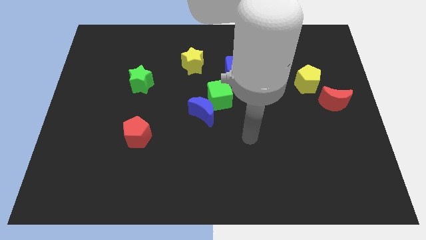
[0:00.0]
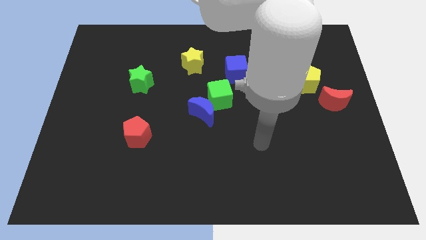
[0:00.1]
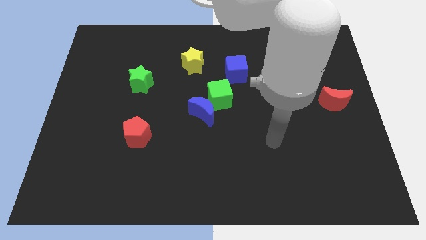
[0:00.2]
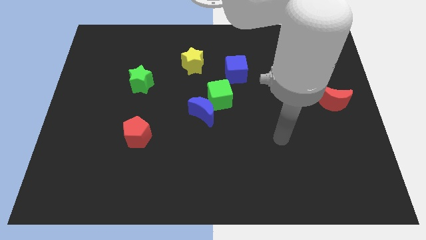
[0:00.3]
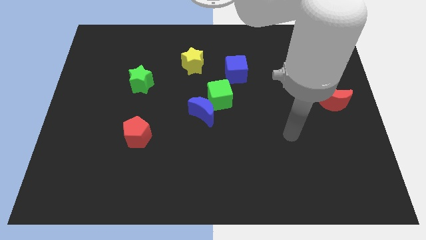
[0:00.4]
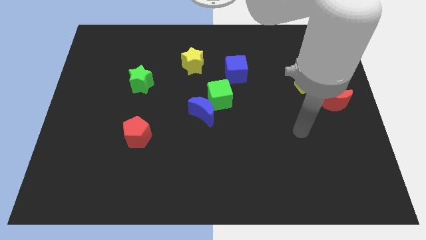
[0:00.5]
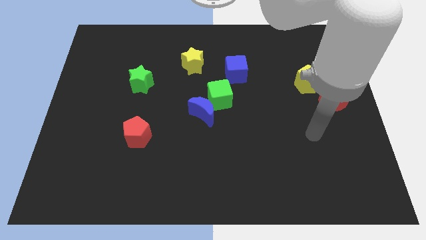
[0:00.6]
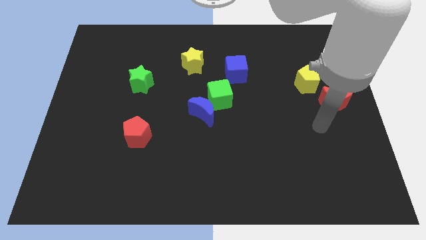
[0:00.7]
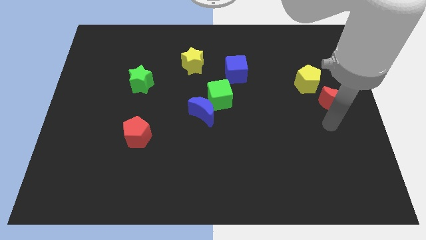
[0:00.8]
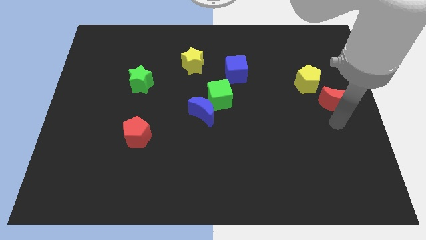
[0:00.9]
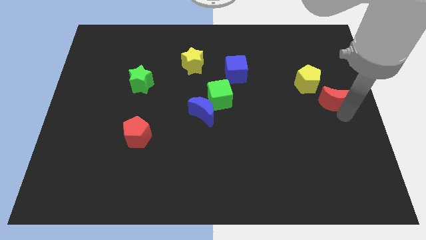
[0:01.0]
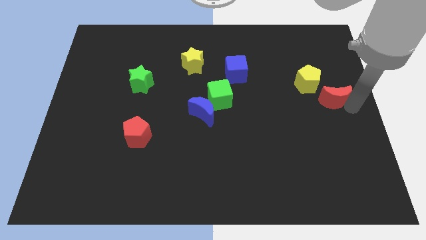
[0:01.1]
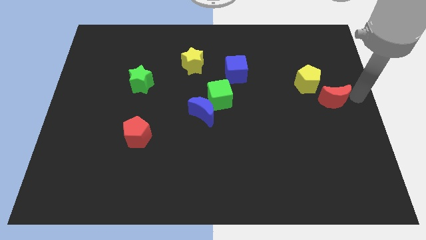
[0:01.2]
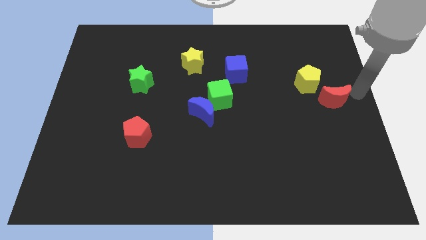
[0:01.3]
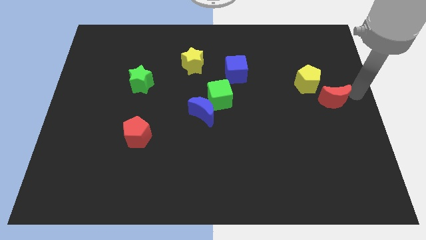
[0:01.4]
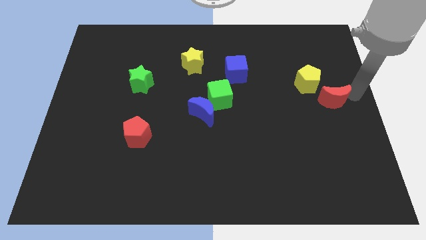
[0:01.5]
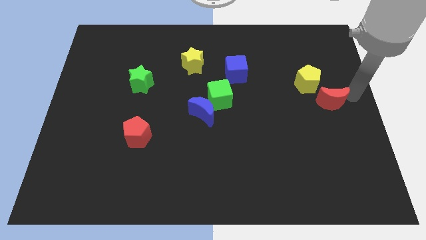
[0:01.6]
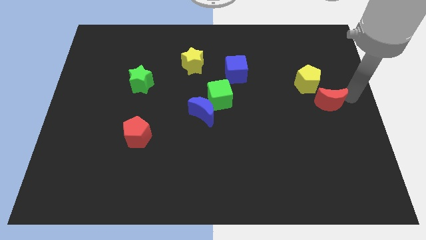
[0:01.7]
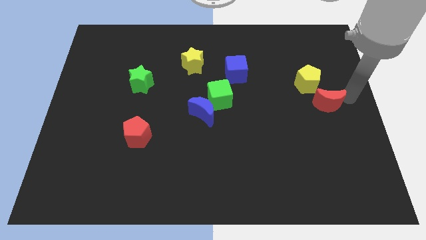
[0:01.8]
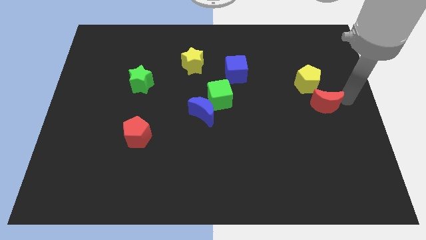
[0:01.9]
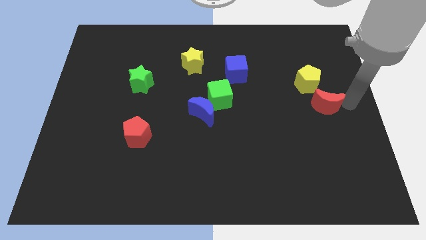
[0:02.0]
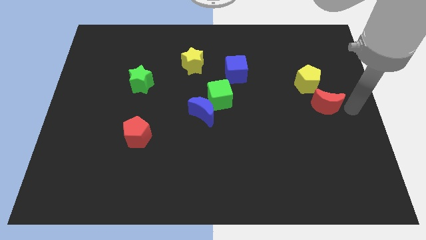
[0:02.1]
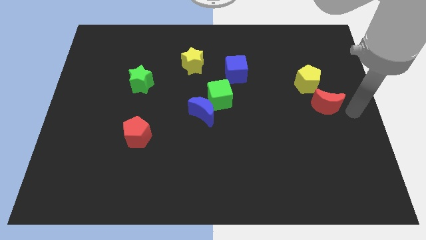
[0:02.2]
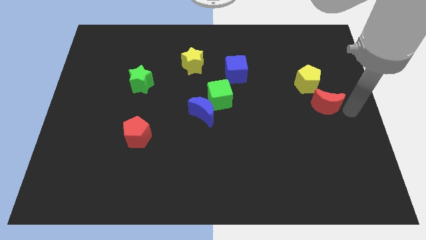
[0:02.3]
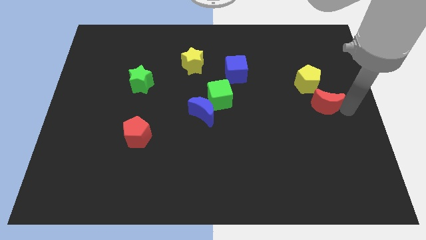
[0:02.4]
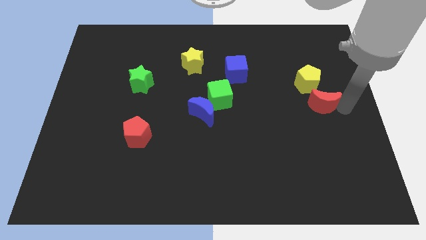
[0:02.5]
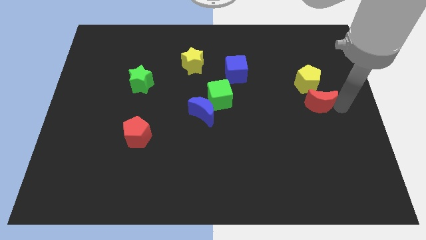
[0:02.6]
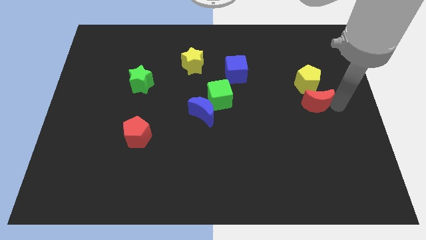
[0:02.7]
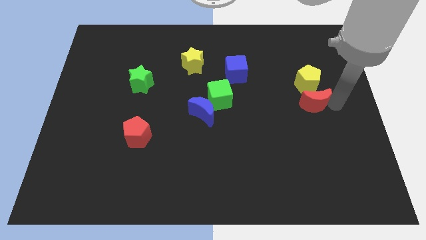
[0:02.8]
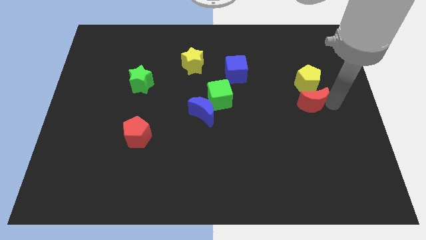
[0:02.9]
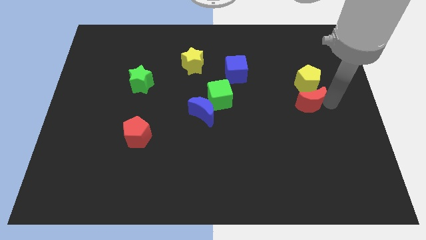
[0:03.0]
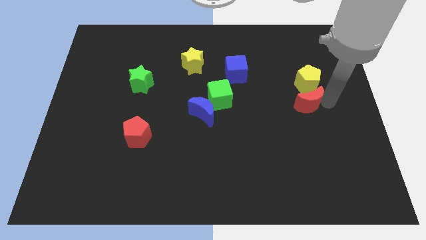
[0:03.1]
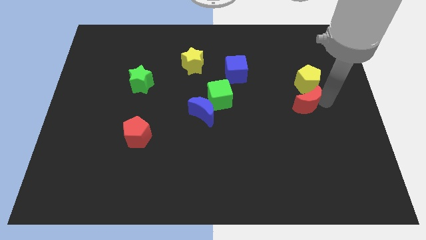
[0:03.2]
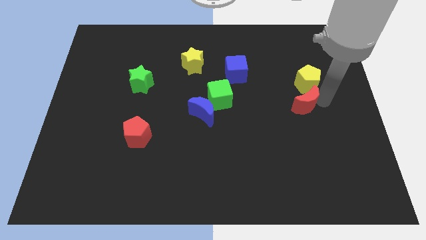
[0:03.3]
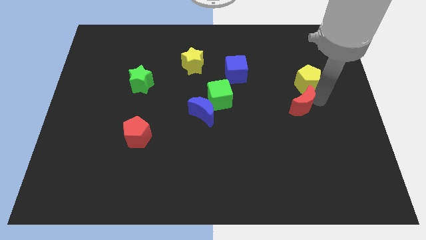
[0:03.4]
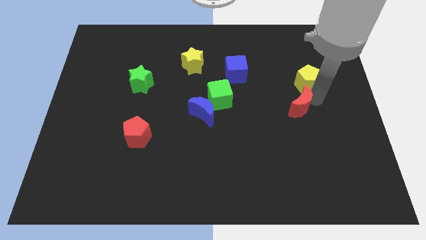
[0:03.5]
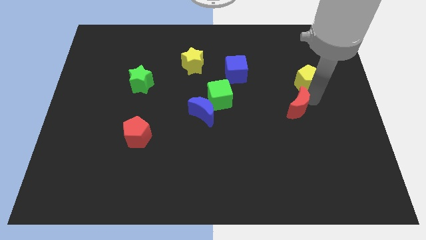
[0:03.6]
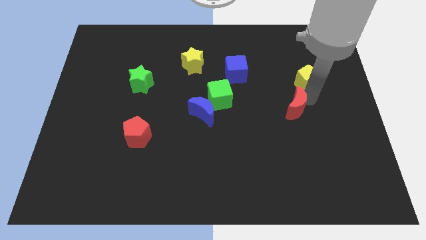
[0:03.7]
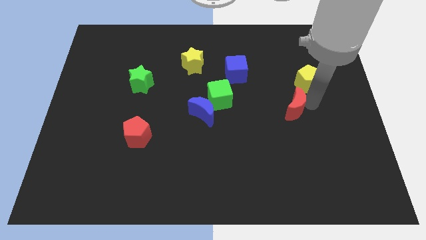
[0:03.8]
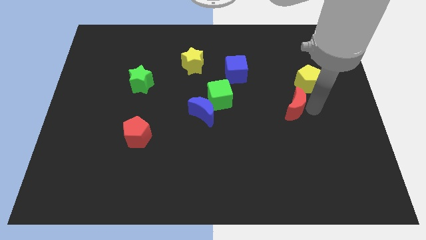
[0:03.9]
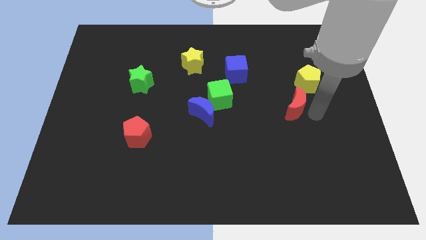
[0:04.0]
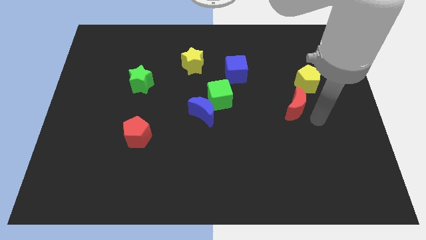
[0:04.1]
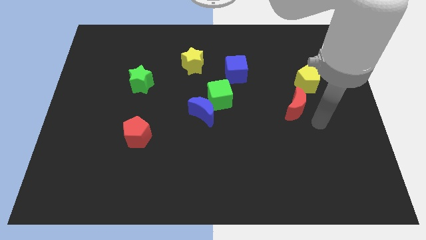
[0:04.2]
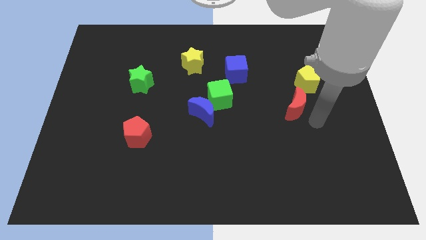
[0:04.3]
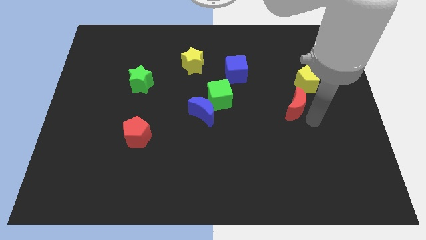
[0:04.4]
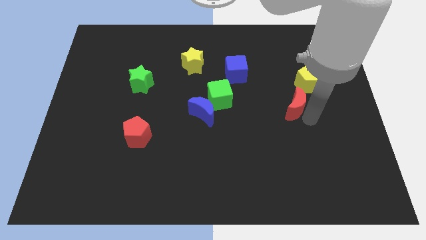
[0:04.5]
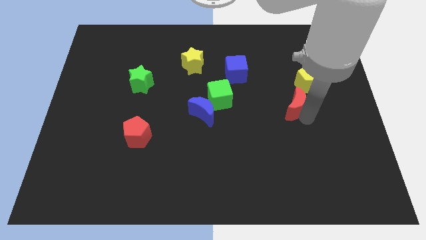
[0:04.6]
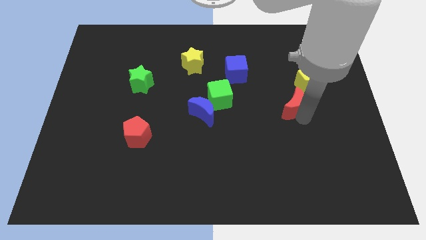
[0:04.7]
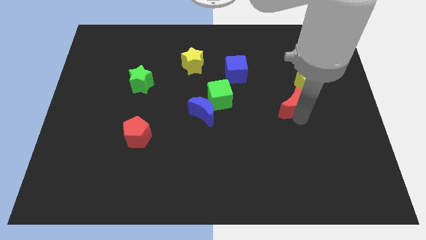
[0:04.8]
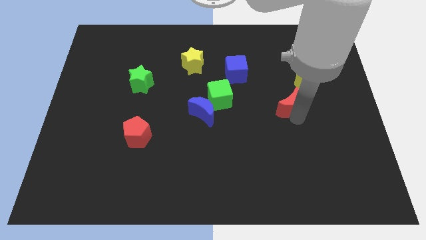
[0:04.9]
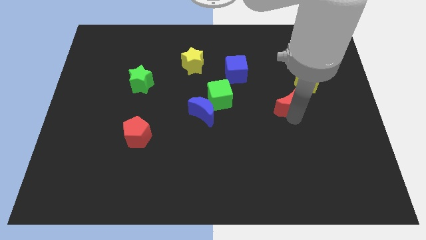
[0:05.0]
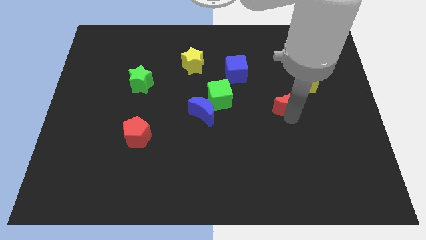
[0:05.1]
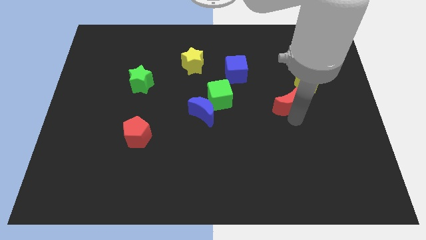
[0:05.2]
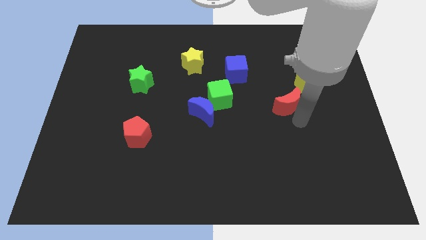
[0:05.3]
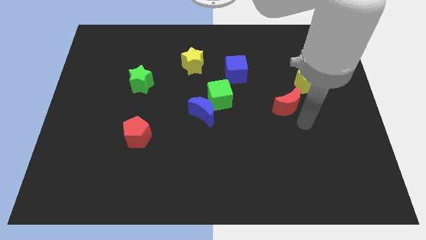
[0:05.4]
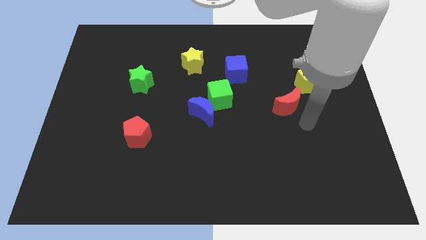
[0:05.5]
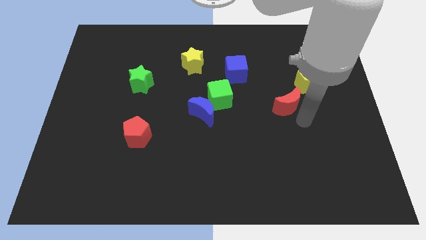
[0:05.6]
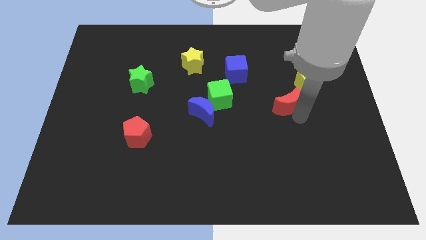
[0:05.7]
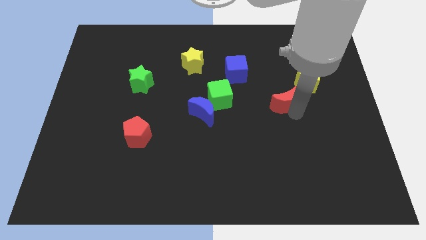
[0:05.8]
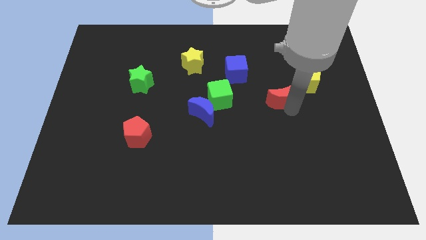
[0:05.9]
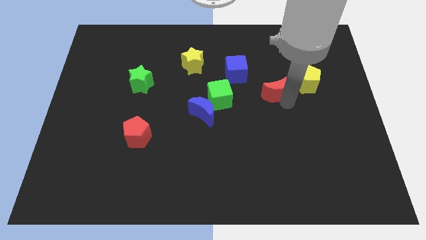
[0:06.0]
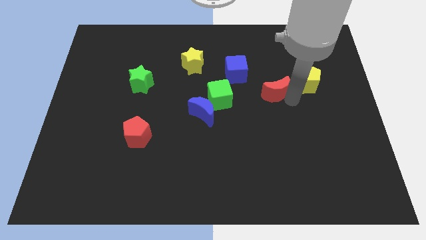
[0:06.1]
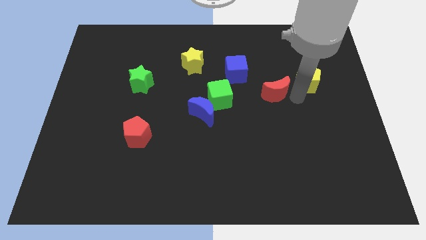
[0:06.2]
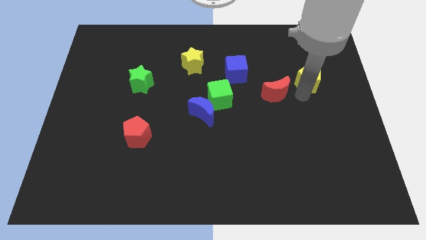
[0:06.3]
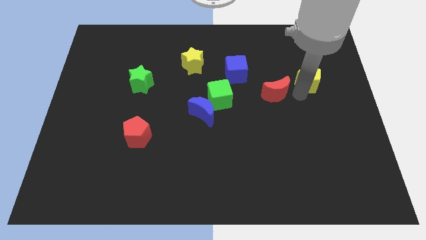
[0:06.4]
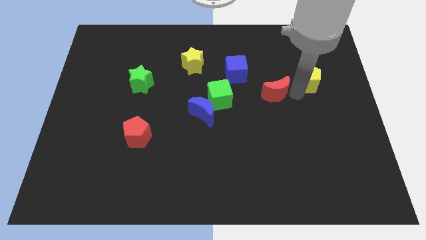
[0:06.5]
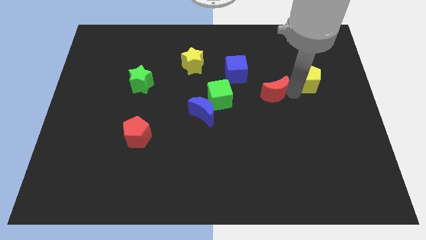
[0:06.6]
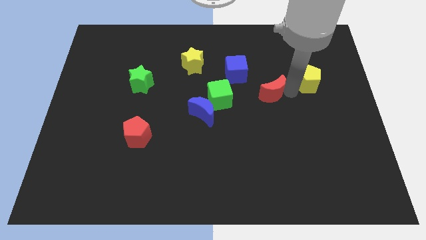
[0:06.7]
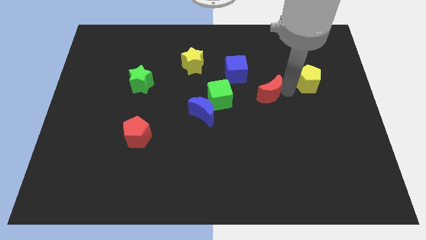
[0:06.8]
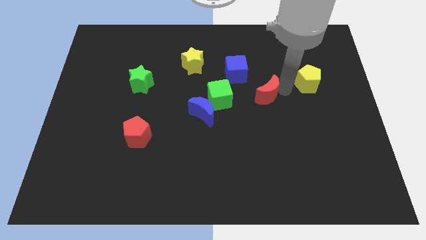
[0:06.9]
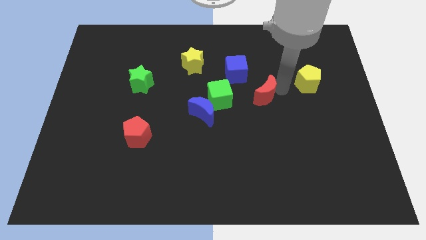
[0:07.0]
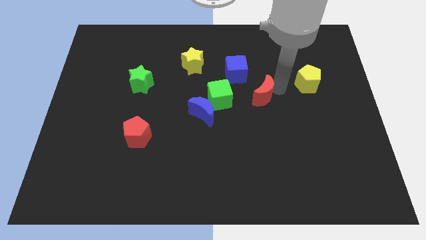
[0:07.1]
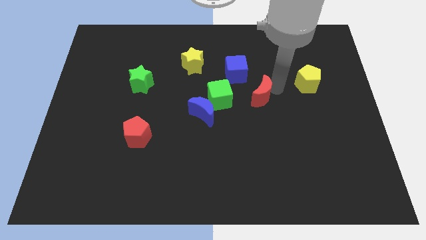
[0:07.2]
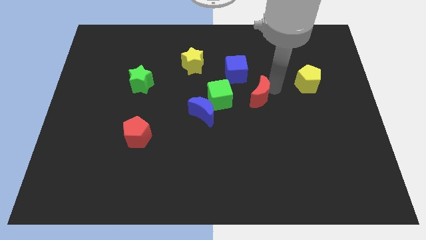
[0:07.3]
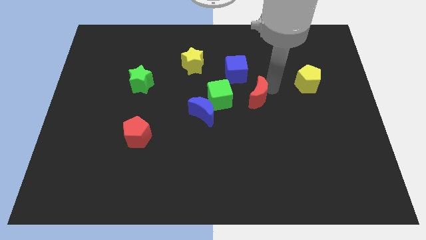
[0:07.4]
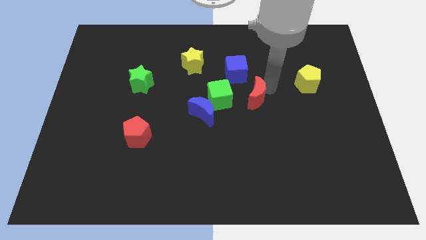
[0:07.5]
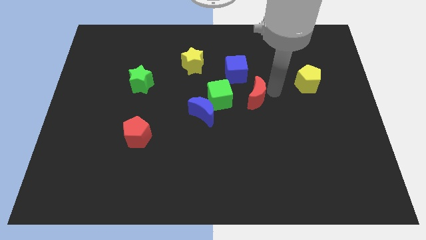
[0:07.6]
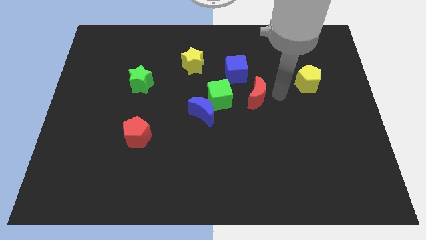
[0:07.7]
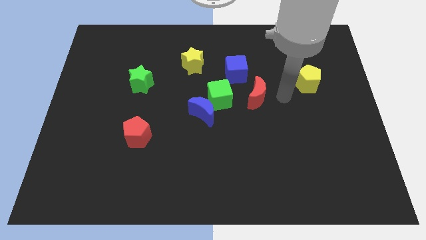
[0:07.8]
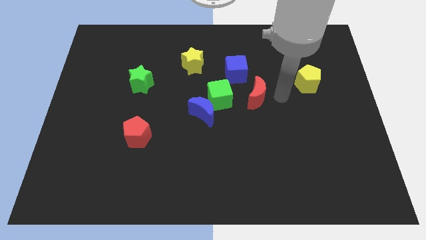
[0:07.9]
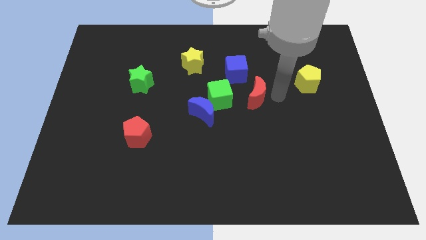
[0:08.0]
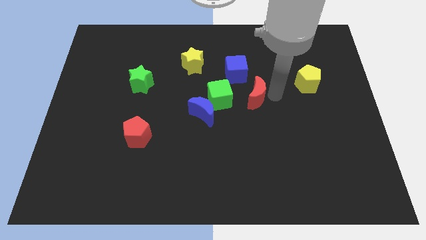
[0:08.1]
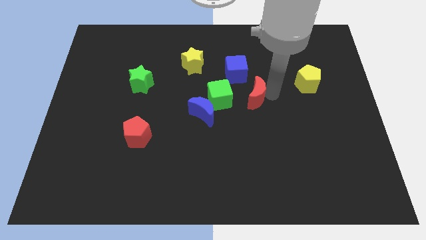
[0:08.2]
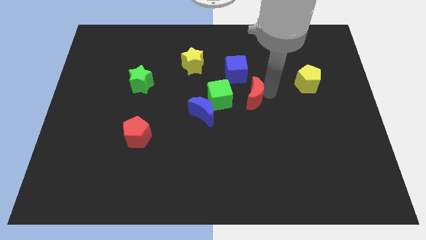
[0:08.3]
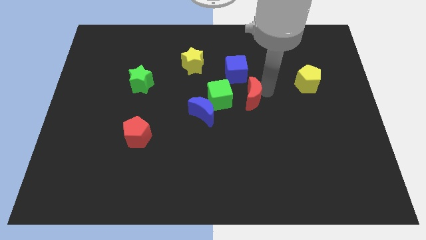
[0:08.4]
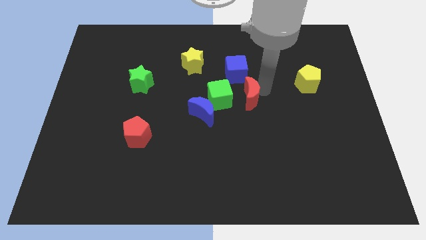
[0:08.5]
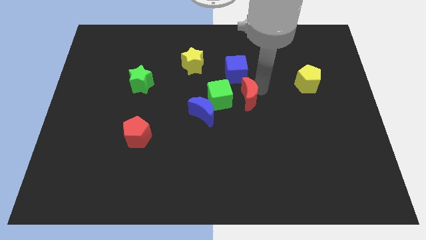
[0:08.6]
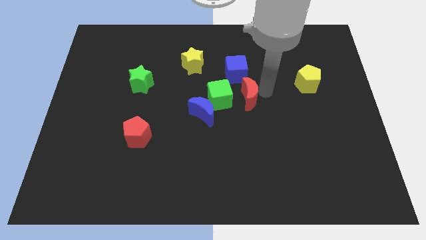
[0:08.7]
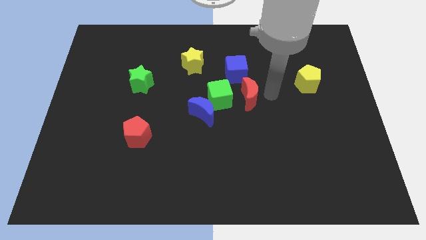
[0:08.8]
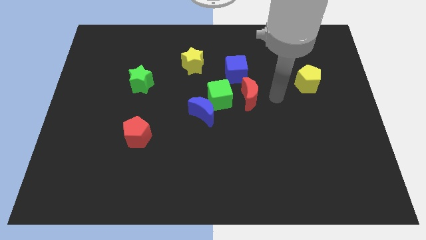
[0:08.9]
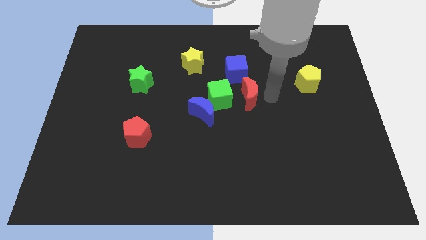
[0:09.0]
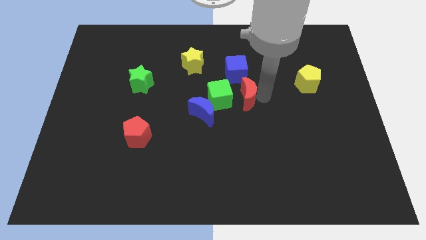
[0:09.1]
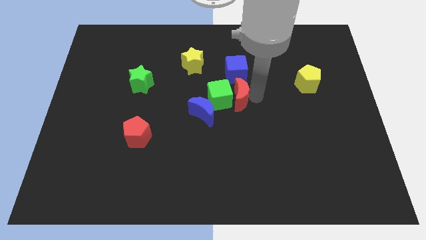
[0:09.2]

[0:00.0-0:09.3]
move the red moon to the top right of the blue moon
